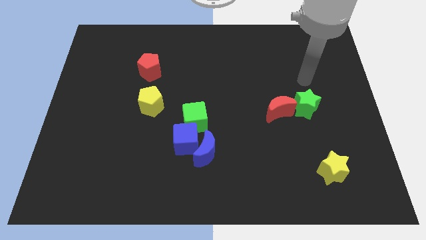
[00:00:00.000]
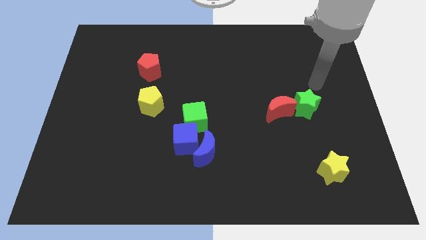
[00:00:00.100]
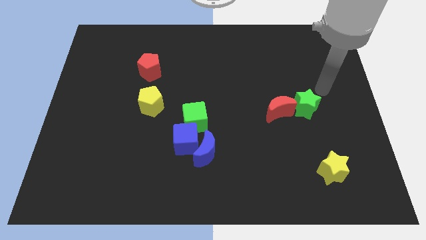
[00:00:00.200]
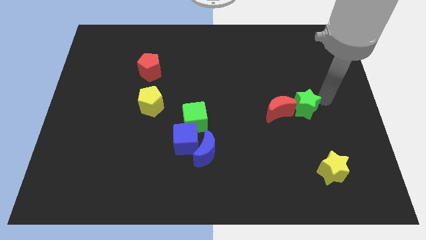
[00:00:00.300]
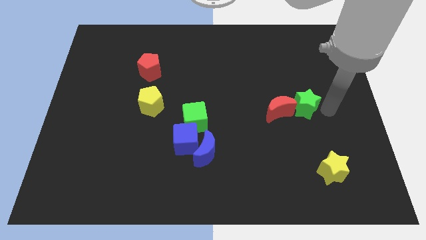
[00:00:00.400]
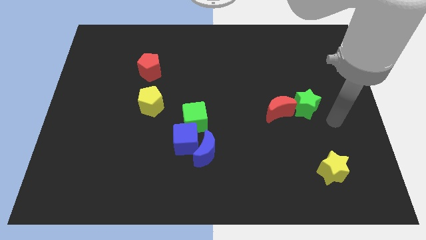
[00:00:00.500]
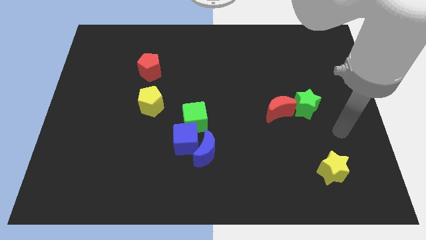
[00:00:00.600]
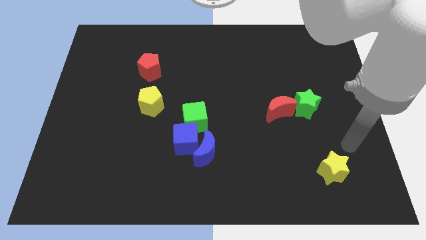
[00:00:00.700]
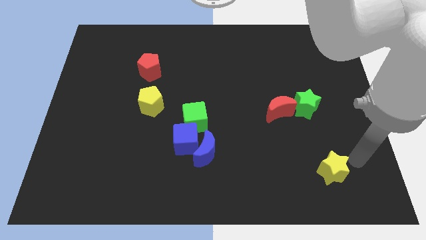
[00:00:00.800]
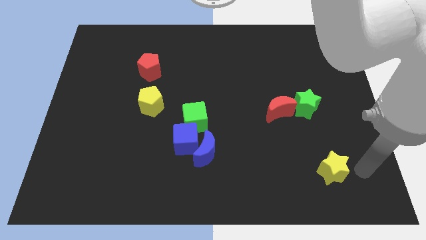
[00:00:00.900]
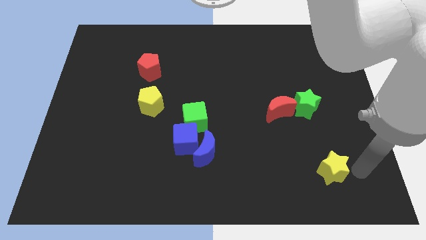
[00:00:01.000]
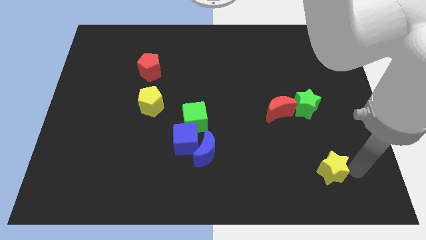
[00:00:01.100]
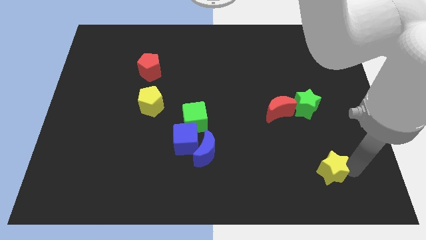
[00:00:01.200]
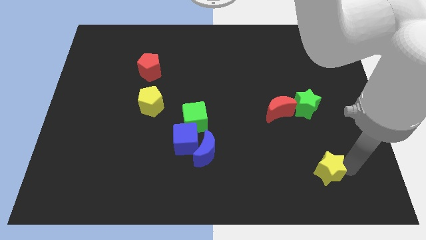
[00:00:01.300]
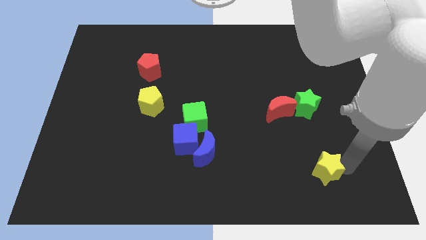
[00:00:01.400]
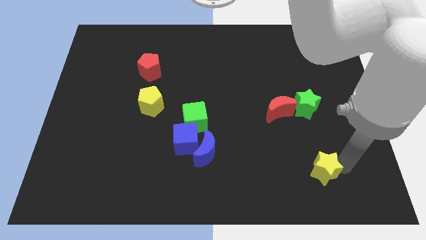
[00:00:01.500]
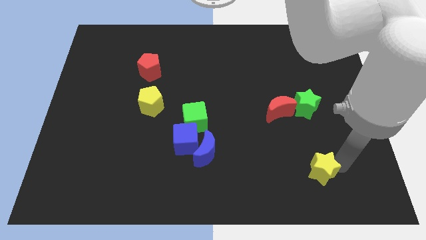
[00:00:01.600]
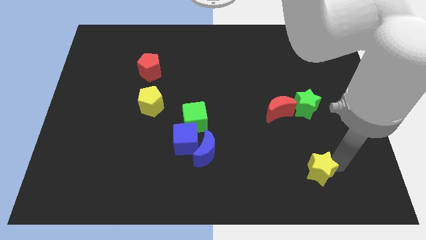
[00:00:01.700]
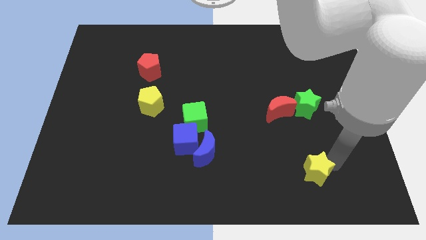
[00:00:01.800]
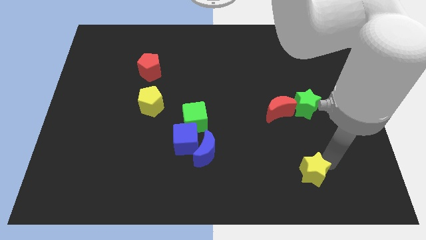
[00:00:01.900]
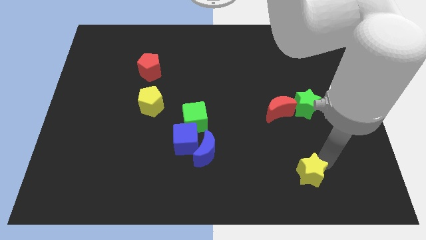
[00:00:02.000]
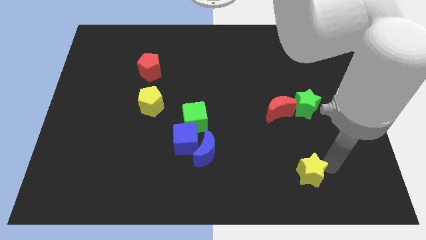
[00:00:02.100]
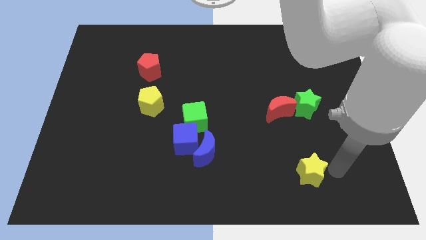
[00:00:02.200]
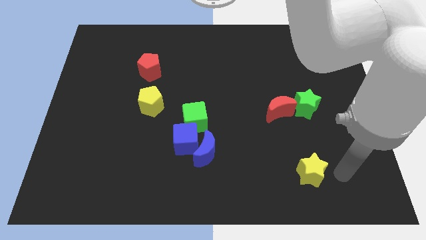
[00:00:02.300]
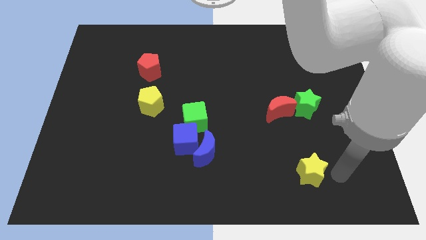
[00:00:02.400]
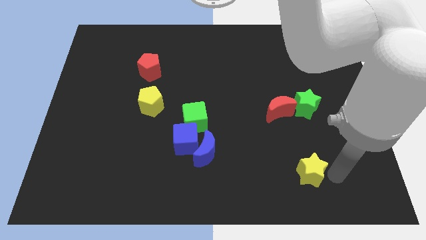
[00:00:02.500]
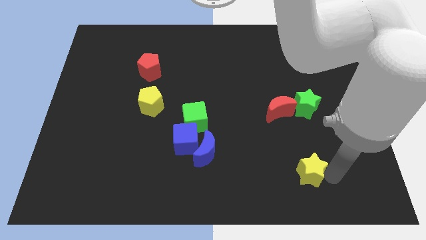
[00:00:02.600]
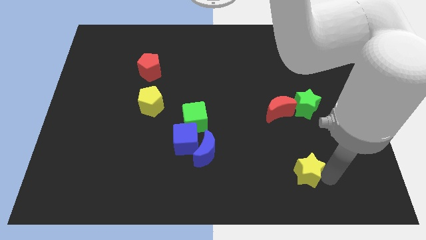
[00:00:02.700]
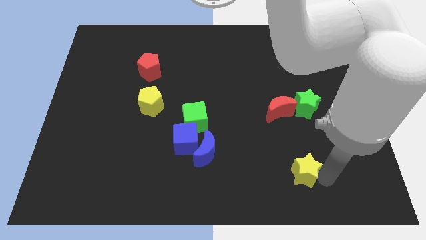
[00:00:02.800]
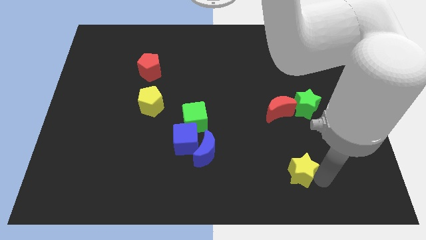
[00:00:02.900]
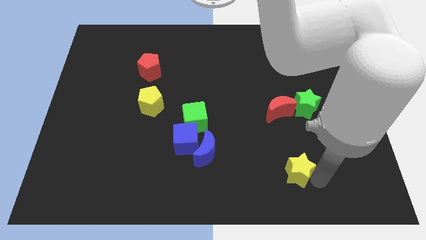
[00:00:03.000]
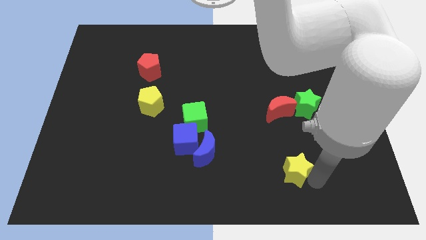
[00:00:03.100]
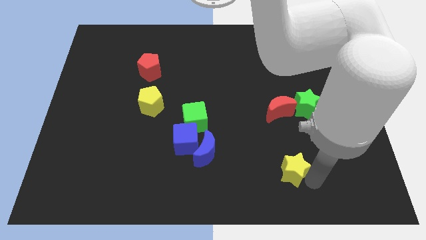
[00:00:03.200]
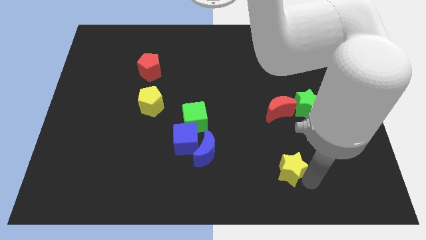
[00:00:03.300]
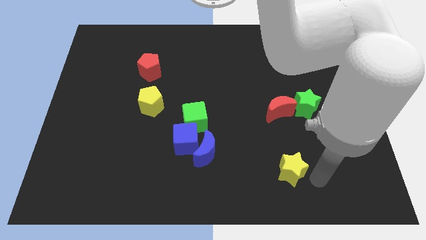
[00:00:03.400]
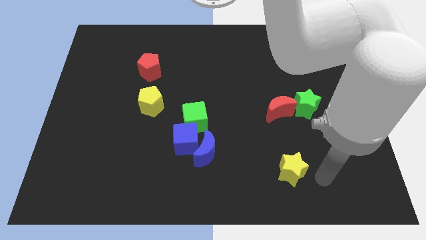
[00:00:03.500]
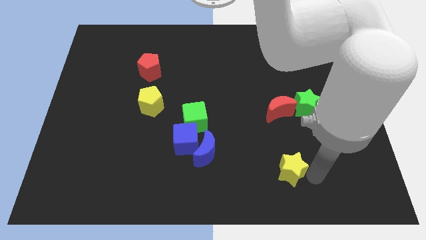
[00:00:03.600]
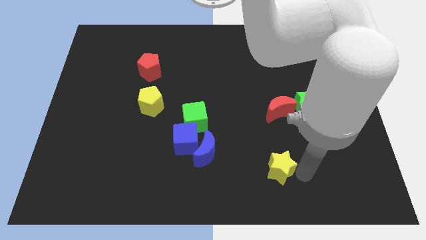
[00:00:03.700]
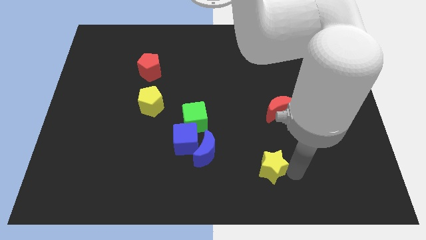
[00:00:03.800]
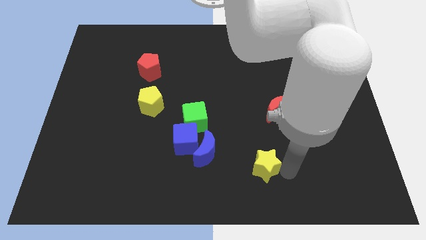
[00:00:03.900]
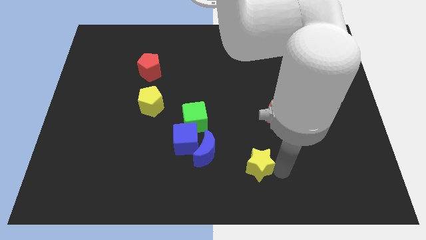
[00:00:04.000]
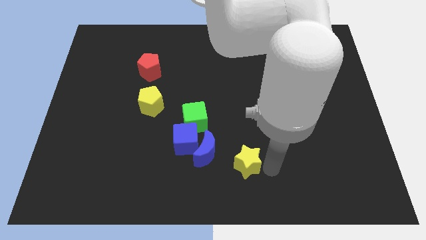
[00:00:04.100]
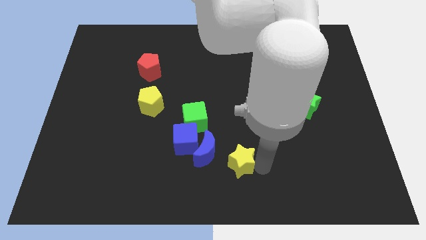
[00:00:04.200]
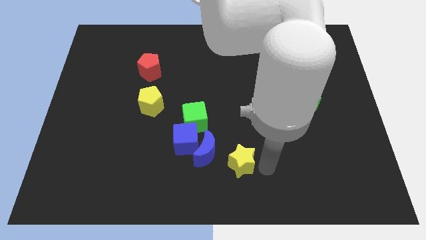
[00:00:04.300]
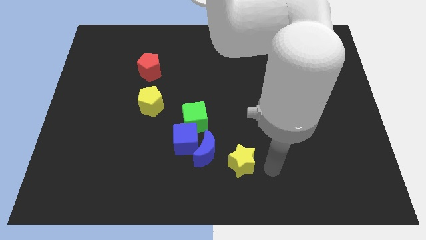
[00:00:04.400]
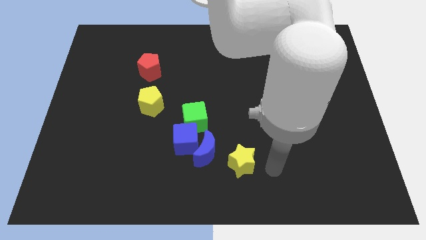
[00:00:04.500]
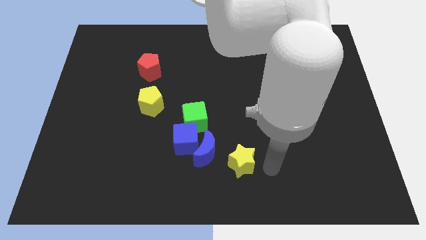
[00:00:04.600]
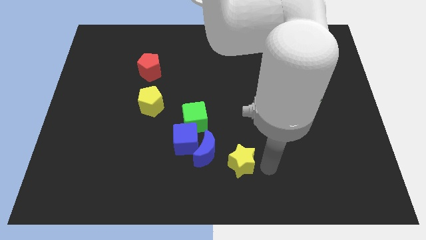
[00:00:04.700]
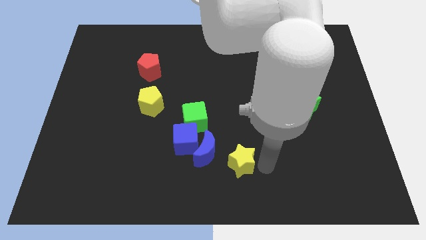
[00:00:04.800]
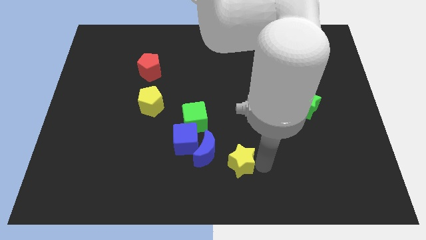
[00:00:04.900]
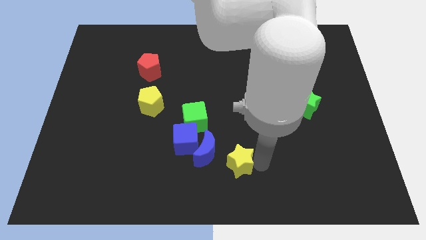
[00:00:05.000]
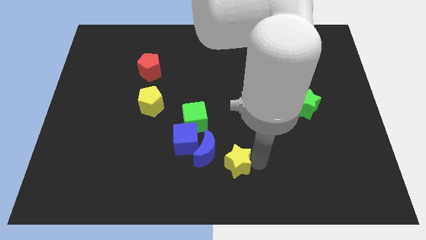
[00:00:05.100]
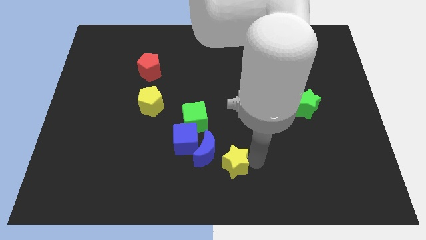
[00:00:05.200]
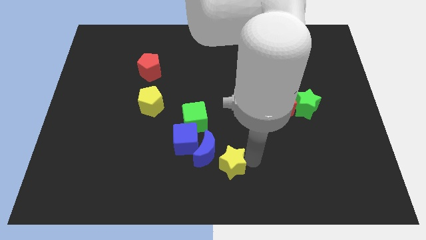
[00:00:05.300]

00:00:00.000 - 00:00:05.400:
push the yellow star to the blue moon

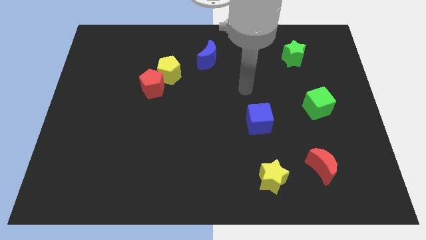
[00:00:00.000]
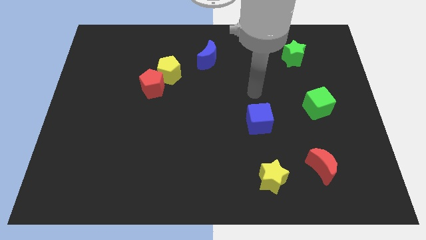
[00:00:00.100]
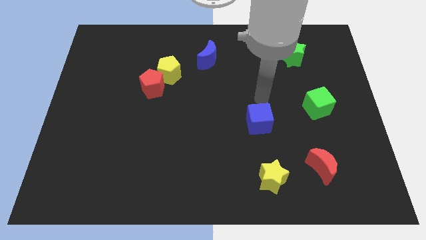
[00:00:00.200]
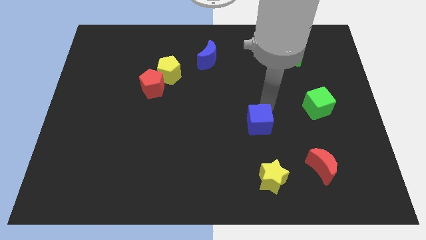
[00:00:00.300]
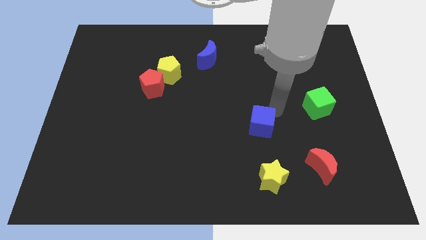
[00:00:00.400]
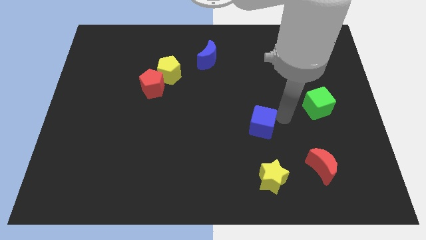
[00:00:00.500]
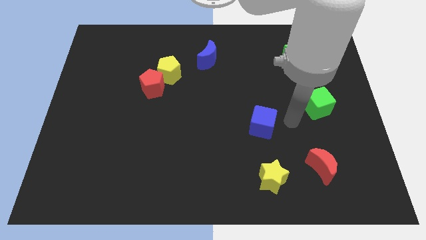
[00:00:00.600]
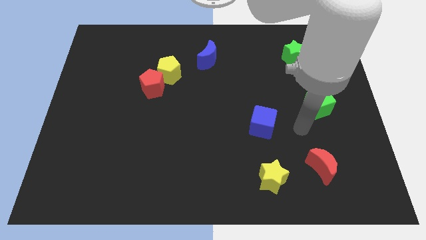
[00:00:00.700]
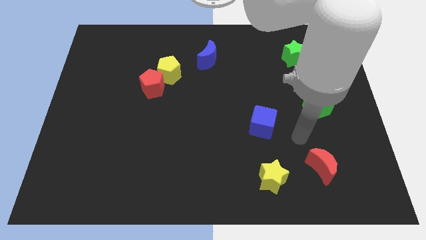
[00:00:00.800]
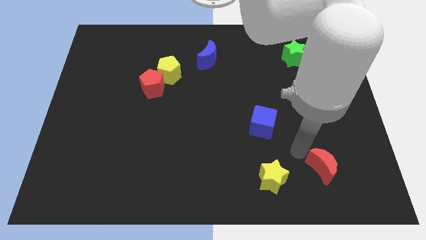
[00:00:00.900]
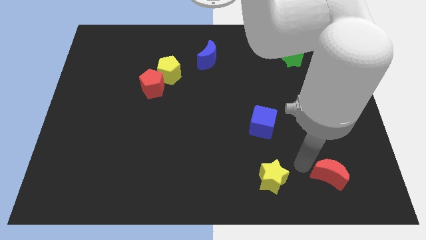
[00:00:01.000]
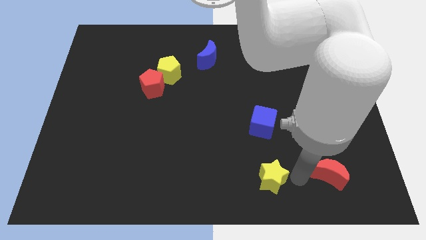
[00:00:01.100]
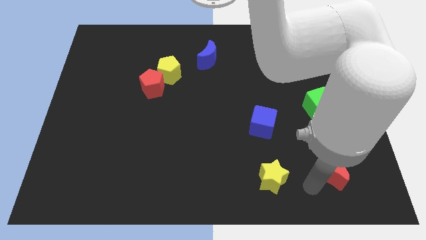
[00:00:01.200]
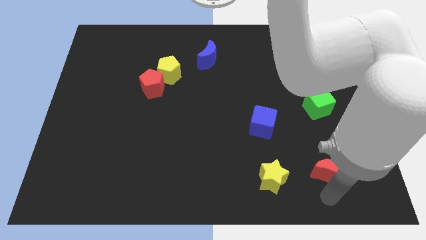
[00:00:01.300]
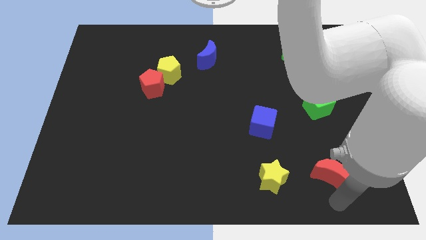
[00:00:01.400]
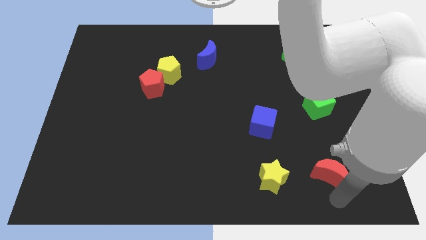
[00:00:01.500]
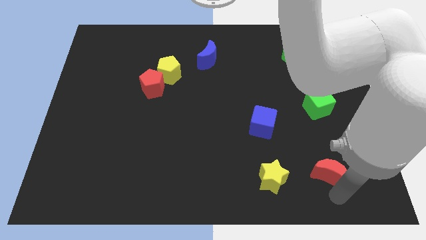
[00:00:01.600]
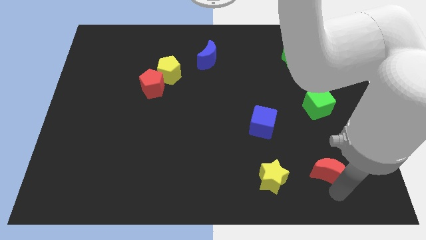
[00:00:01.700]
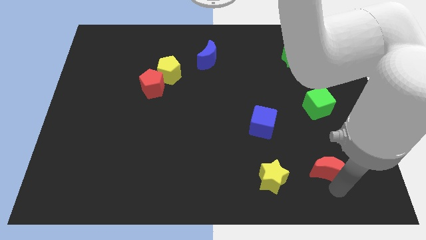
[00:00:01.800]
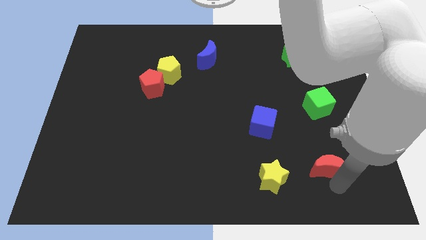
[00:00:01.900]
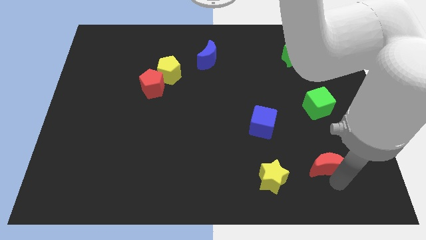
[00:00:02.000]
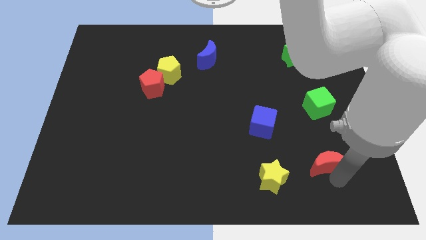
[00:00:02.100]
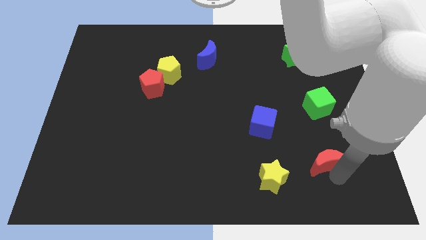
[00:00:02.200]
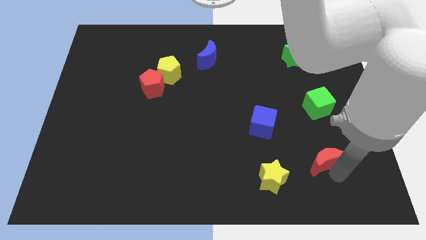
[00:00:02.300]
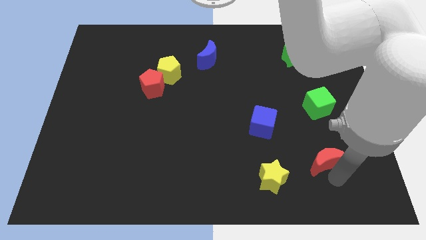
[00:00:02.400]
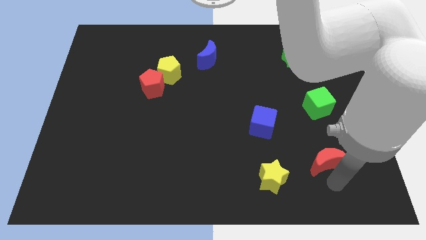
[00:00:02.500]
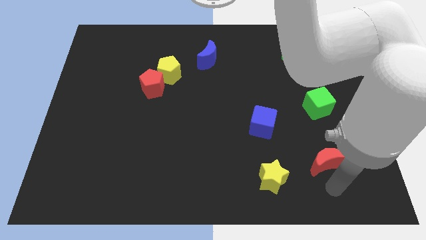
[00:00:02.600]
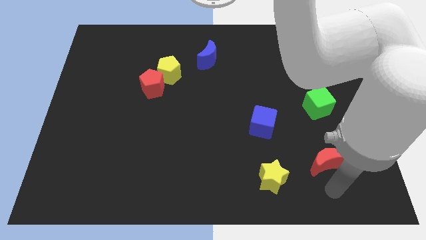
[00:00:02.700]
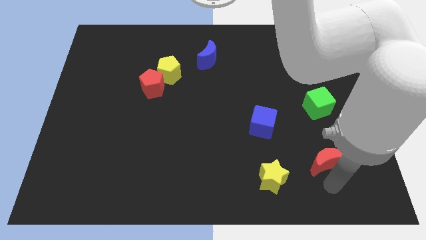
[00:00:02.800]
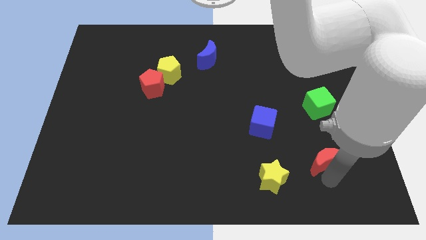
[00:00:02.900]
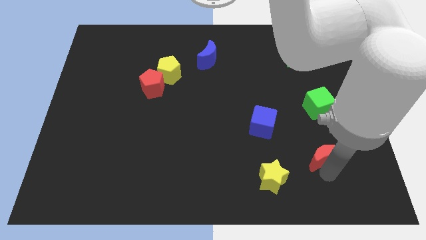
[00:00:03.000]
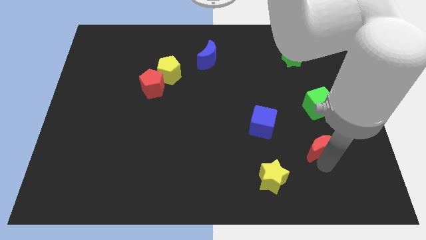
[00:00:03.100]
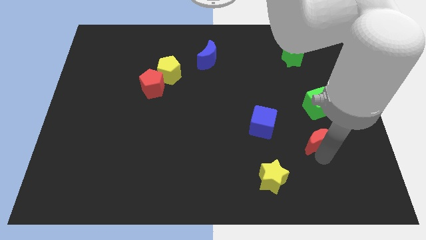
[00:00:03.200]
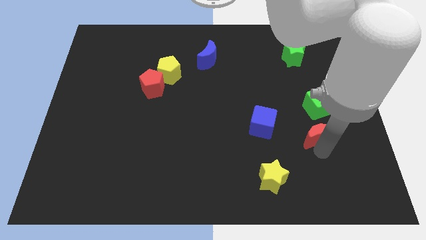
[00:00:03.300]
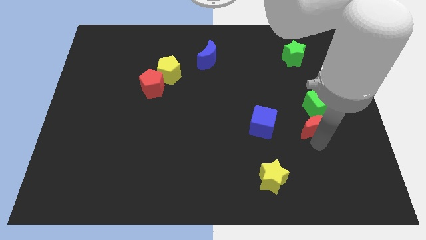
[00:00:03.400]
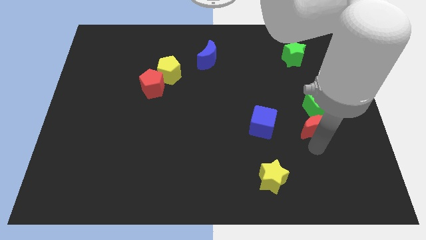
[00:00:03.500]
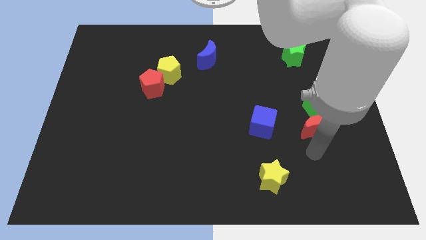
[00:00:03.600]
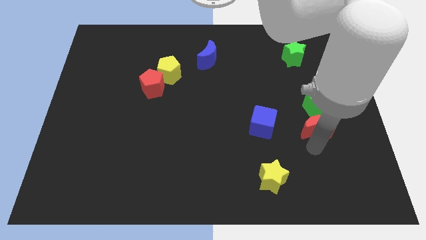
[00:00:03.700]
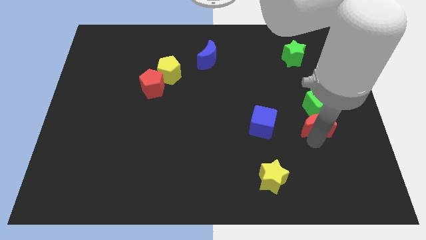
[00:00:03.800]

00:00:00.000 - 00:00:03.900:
move the red moon towards the green cube
